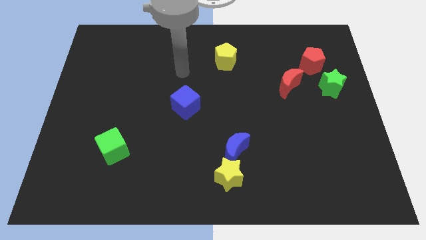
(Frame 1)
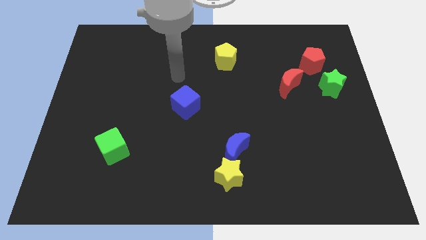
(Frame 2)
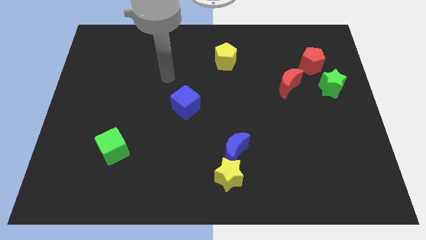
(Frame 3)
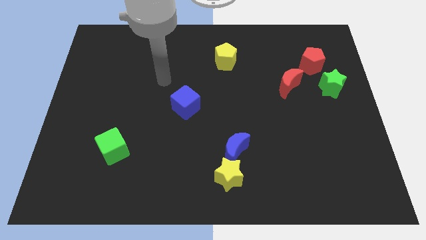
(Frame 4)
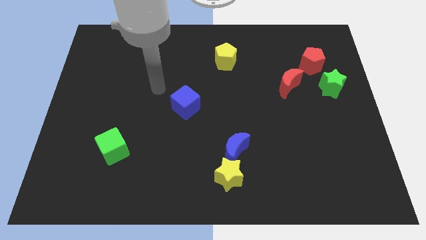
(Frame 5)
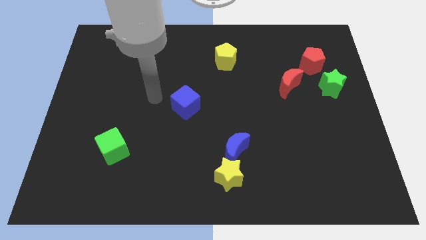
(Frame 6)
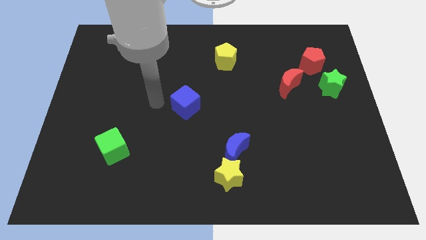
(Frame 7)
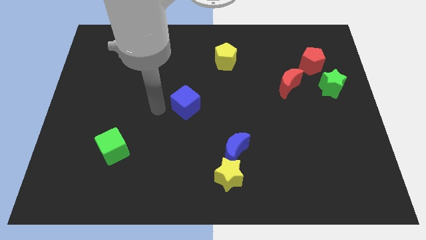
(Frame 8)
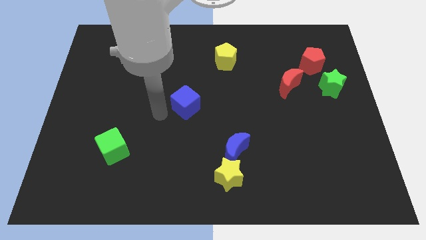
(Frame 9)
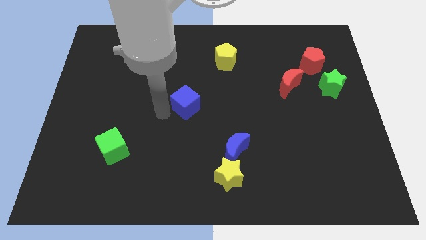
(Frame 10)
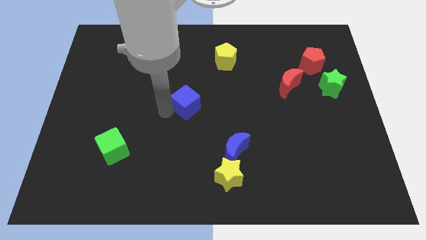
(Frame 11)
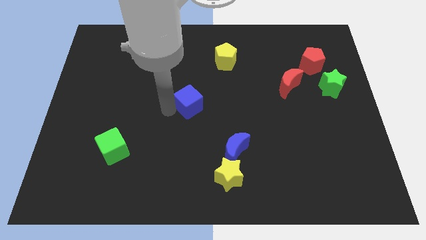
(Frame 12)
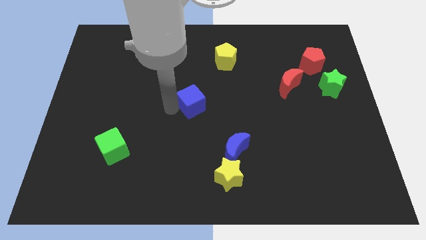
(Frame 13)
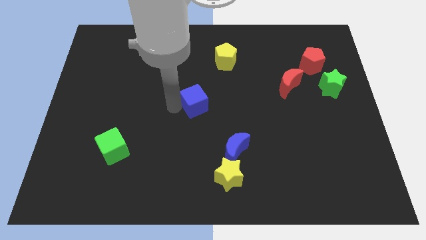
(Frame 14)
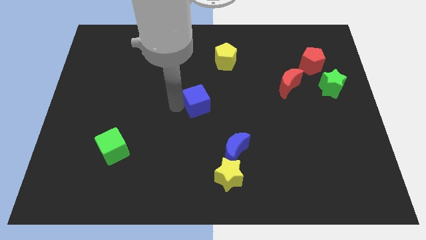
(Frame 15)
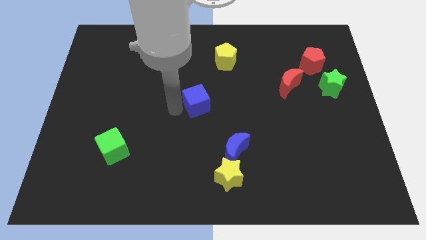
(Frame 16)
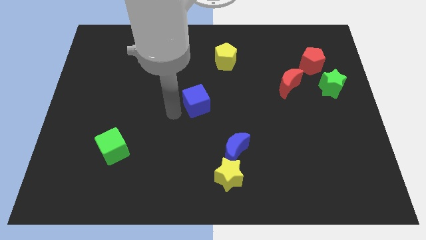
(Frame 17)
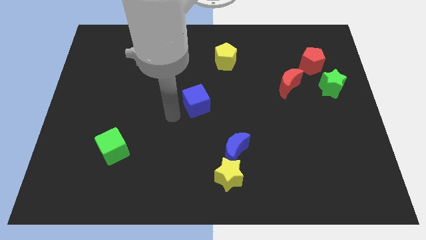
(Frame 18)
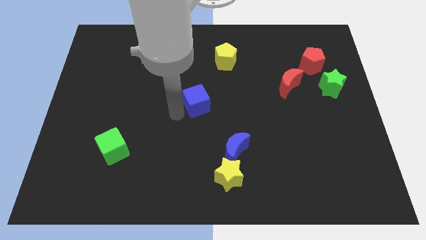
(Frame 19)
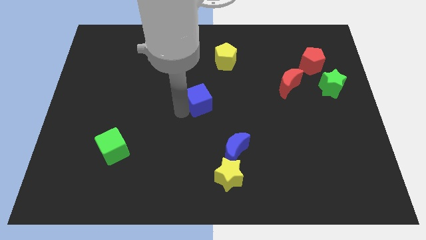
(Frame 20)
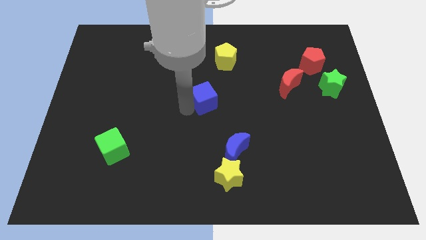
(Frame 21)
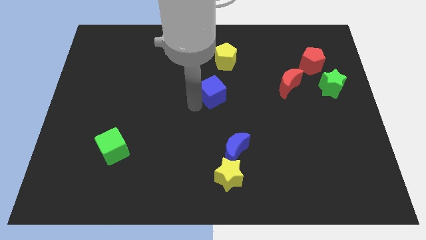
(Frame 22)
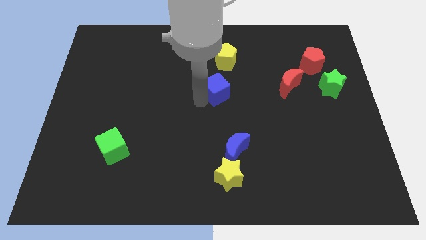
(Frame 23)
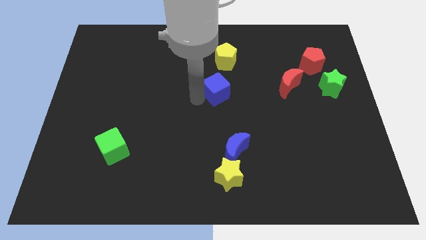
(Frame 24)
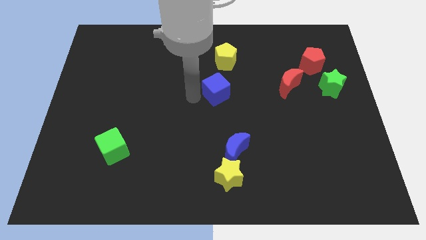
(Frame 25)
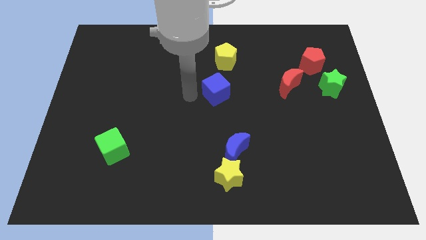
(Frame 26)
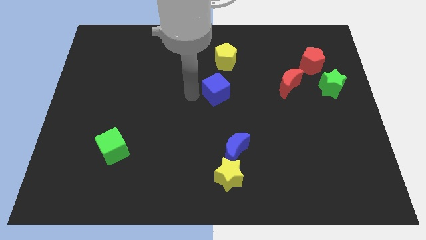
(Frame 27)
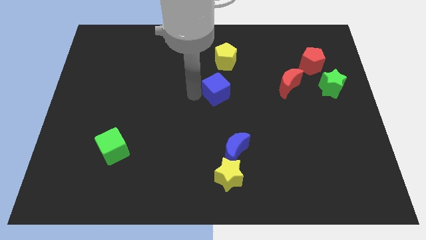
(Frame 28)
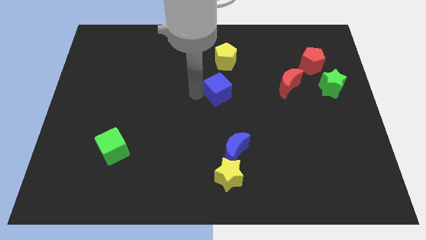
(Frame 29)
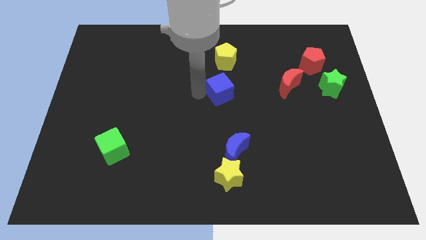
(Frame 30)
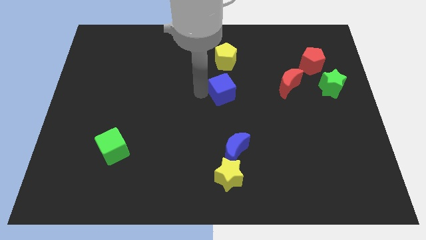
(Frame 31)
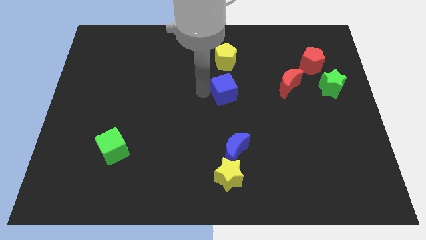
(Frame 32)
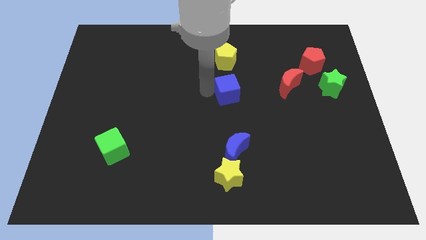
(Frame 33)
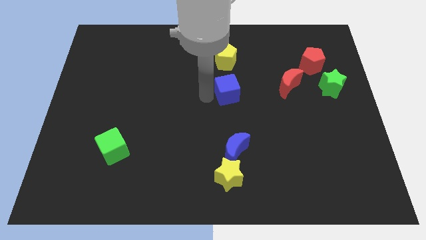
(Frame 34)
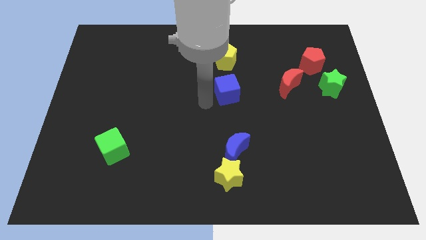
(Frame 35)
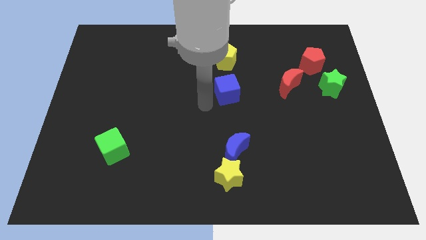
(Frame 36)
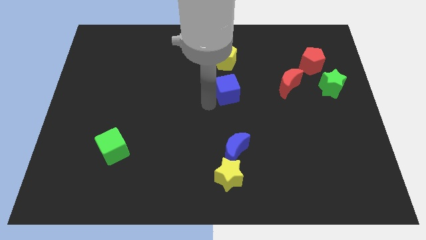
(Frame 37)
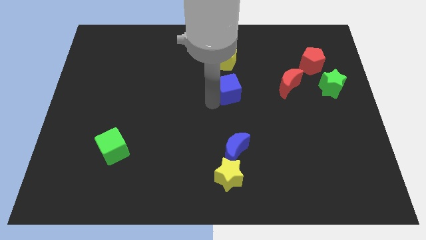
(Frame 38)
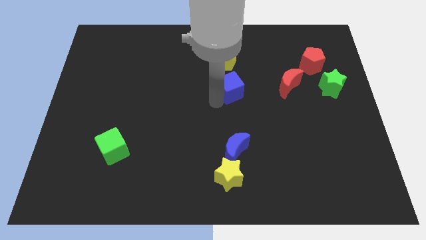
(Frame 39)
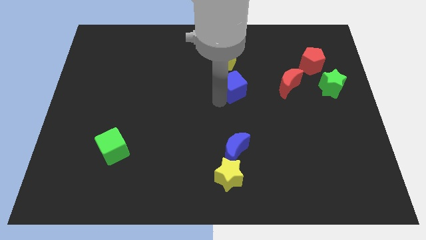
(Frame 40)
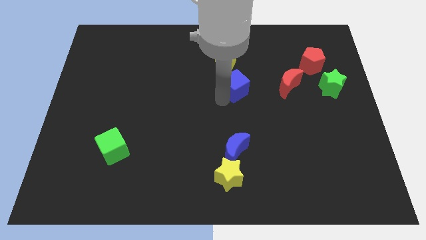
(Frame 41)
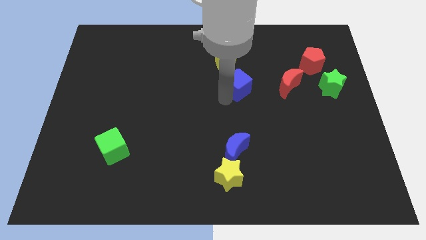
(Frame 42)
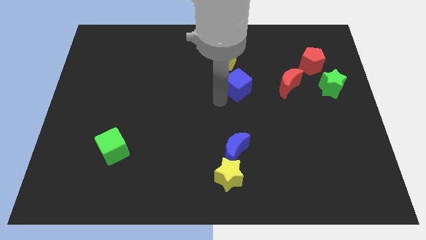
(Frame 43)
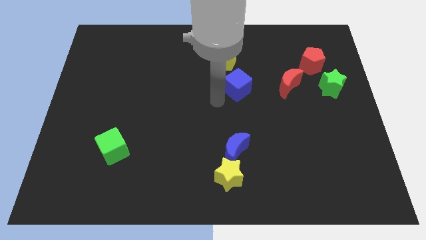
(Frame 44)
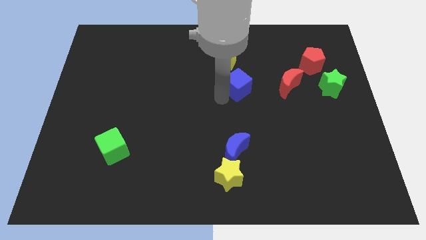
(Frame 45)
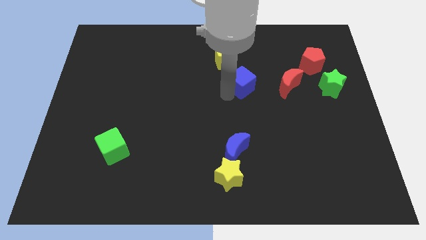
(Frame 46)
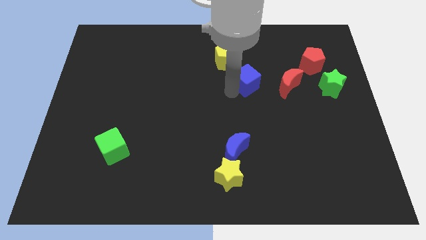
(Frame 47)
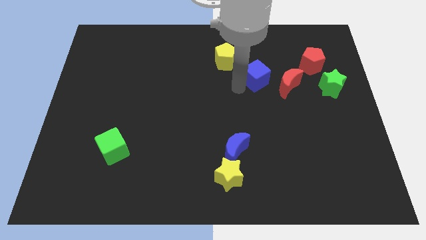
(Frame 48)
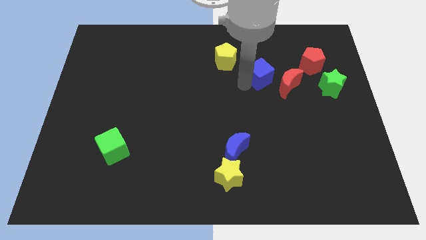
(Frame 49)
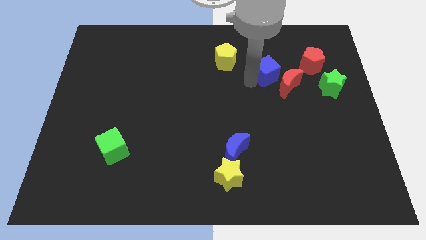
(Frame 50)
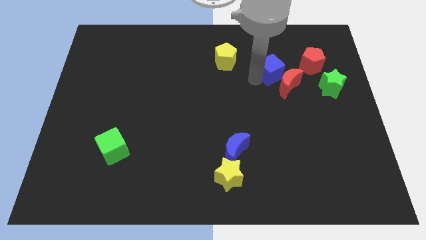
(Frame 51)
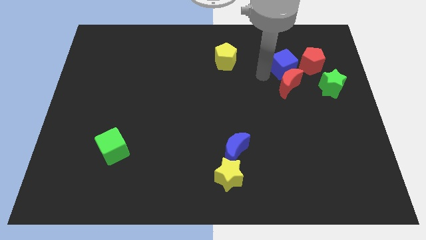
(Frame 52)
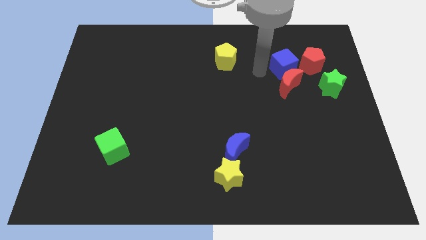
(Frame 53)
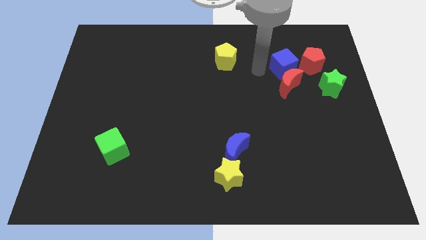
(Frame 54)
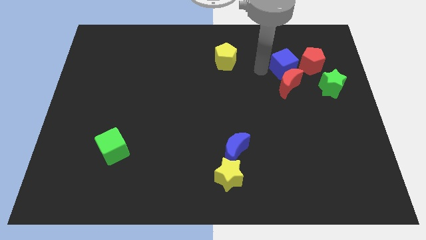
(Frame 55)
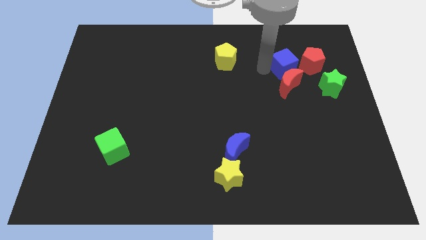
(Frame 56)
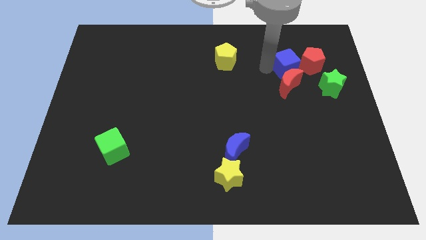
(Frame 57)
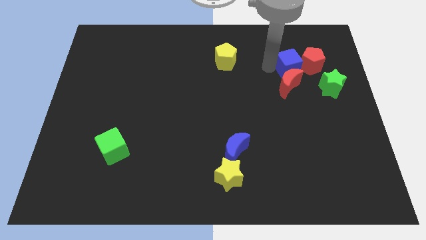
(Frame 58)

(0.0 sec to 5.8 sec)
move the blue cube to the red pentagon

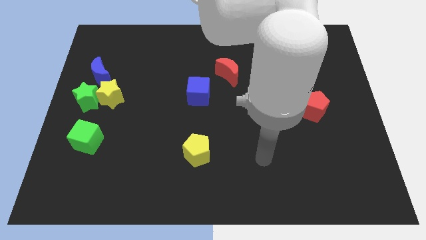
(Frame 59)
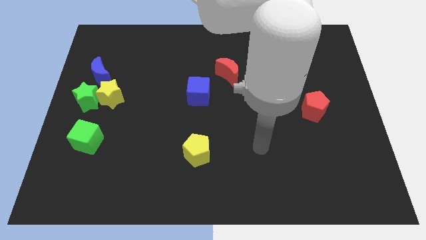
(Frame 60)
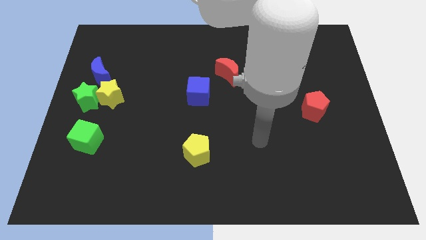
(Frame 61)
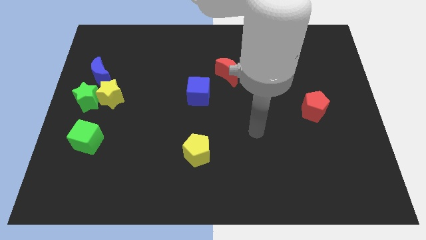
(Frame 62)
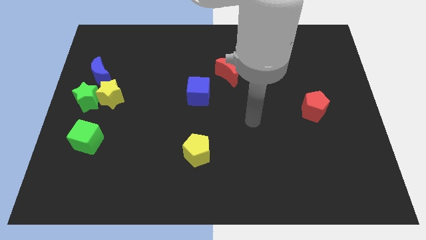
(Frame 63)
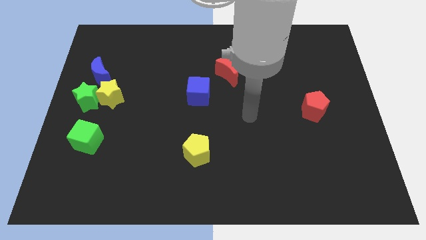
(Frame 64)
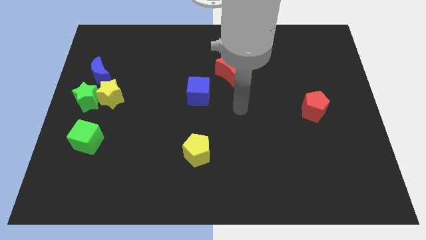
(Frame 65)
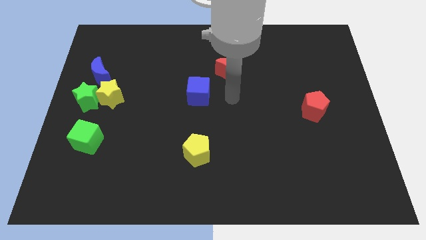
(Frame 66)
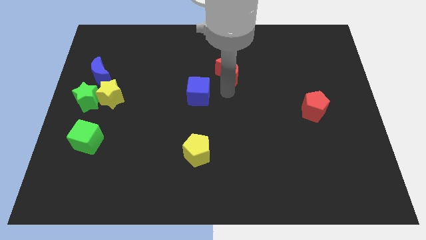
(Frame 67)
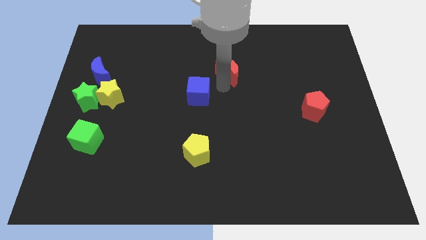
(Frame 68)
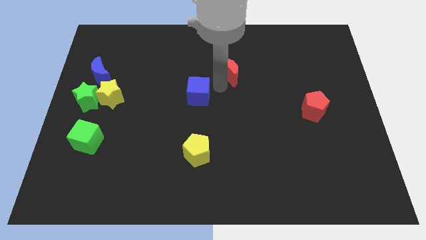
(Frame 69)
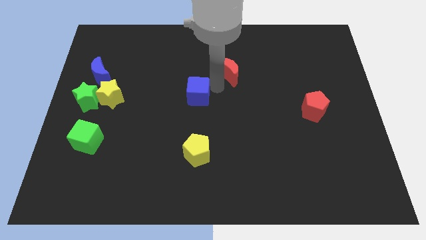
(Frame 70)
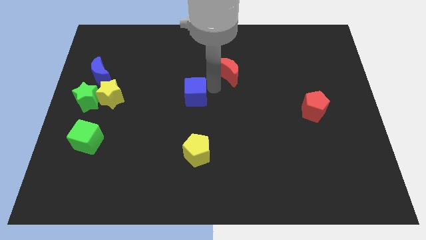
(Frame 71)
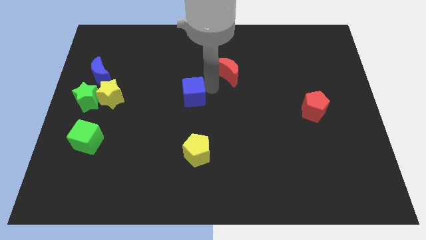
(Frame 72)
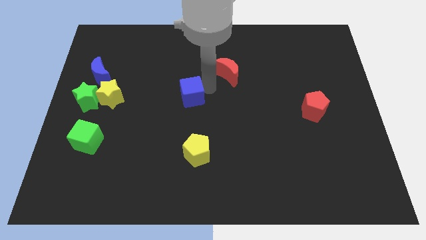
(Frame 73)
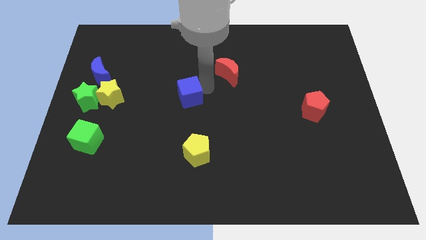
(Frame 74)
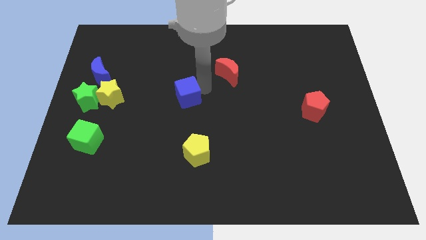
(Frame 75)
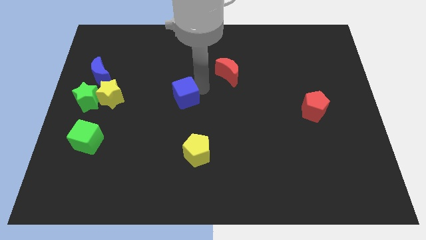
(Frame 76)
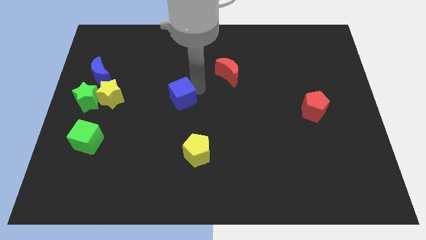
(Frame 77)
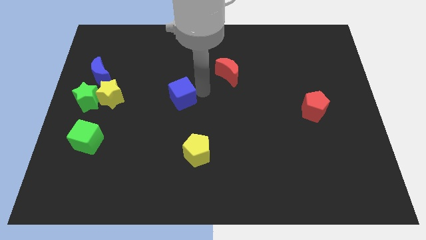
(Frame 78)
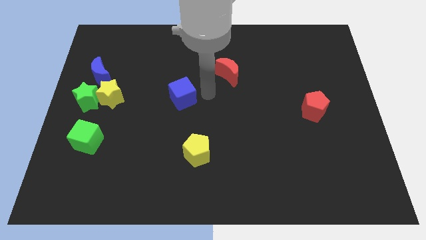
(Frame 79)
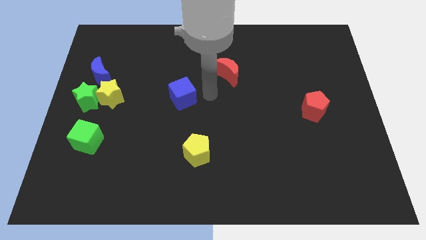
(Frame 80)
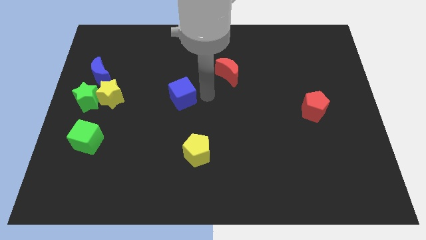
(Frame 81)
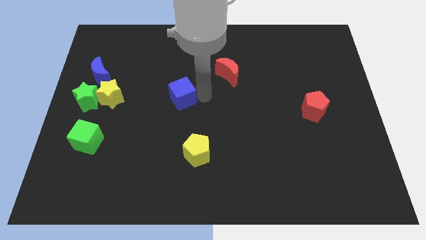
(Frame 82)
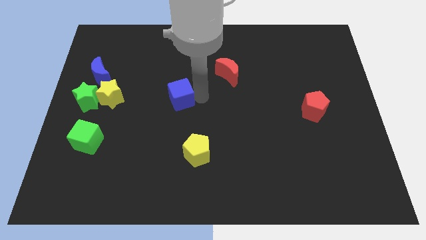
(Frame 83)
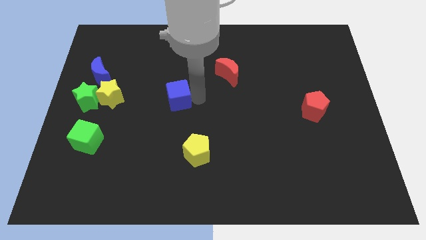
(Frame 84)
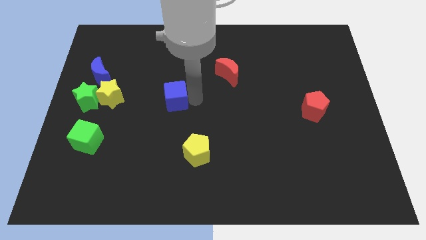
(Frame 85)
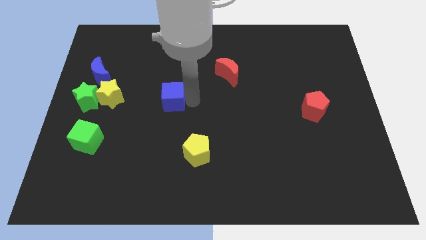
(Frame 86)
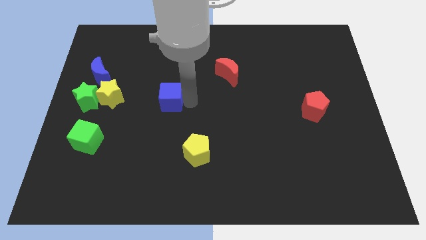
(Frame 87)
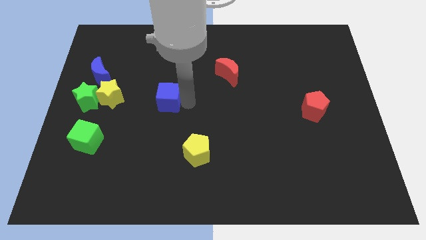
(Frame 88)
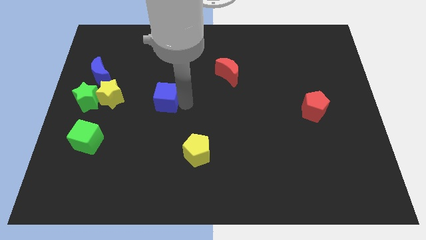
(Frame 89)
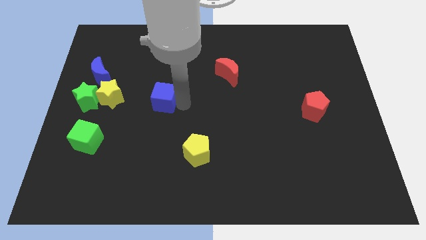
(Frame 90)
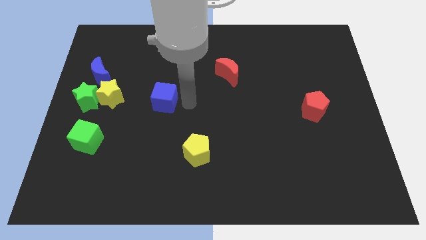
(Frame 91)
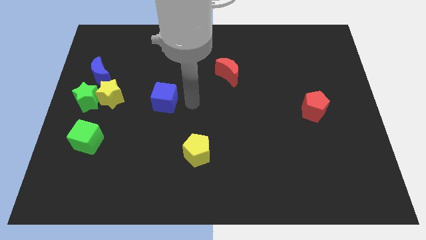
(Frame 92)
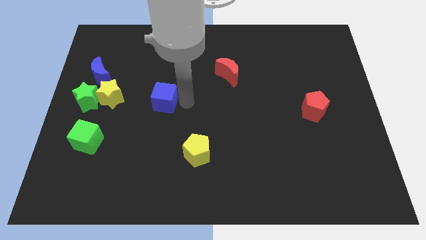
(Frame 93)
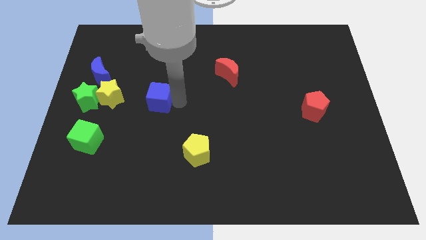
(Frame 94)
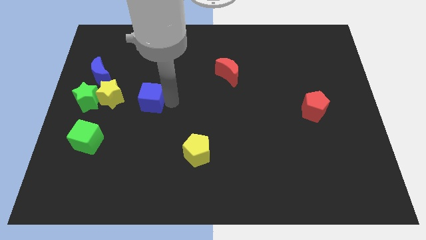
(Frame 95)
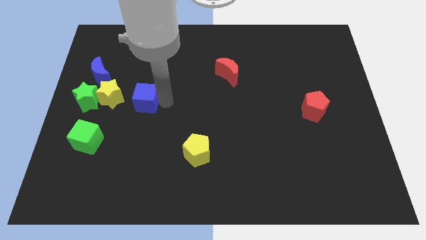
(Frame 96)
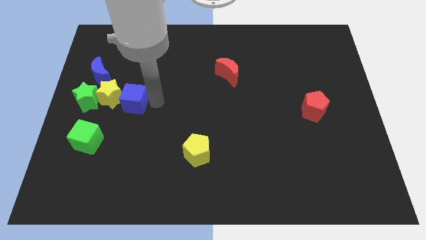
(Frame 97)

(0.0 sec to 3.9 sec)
move the blue cube to the yellow star
